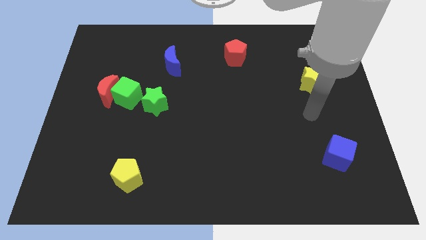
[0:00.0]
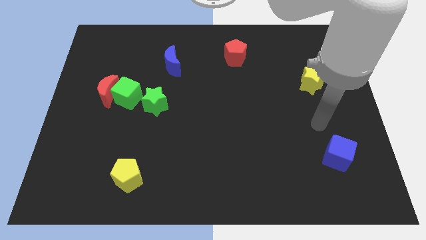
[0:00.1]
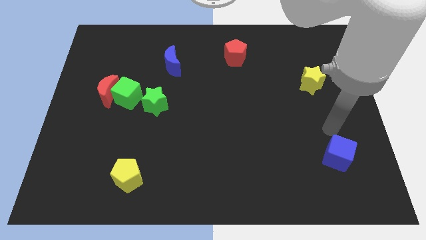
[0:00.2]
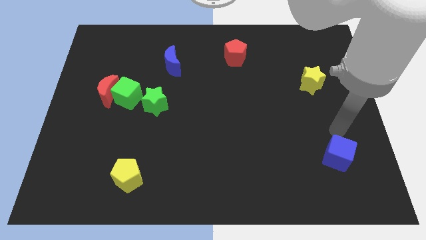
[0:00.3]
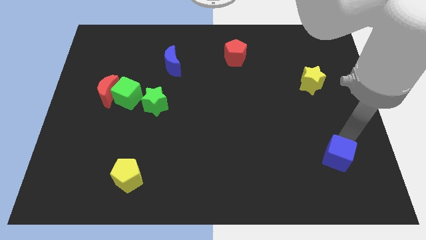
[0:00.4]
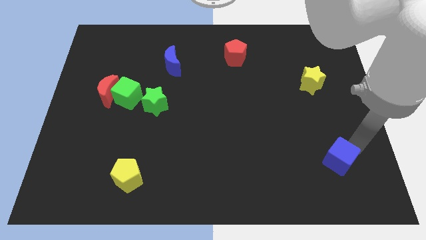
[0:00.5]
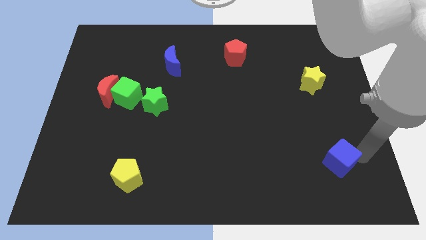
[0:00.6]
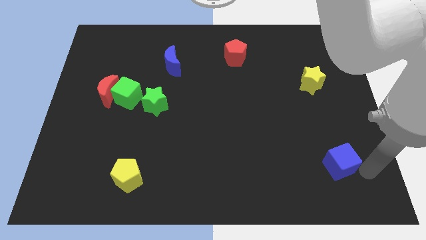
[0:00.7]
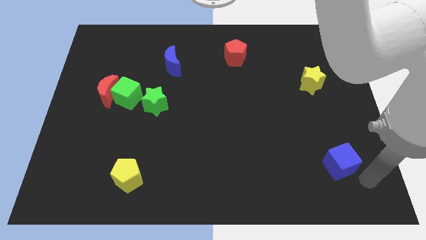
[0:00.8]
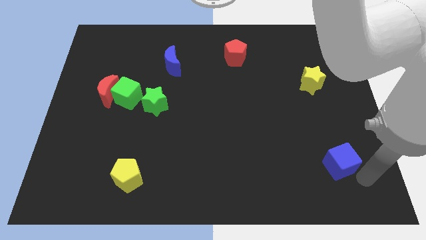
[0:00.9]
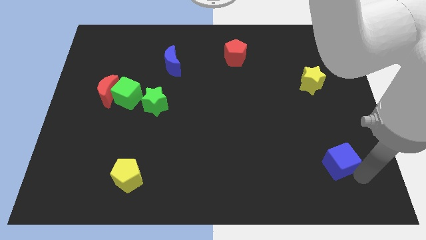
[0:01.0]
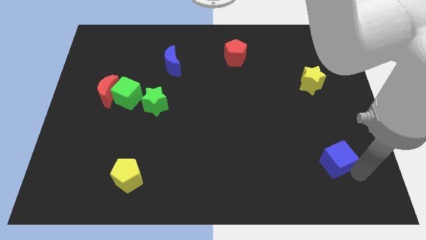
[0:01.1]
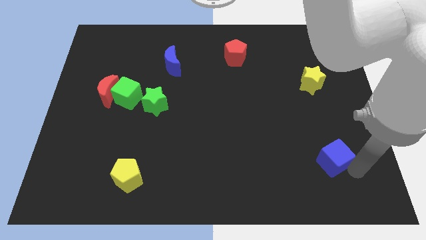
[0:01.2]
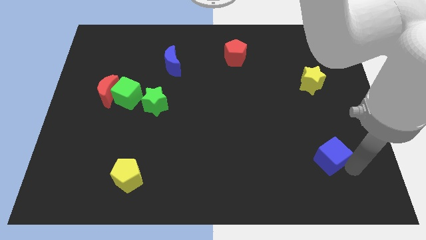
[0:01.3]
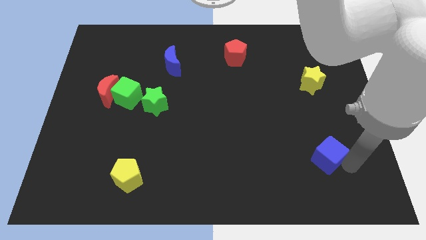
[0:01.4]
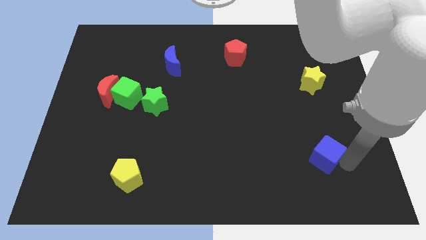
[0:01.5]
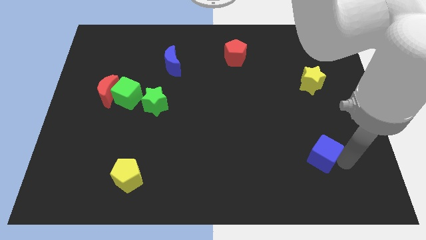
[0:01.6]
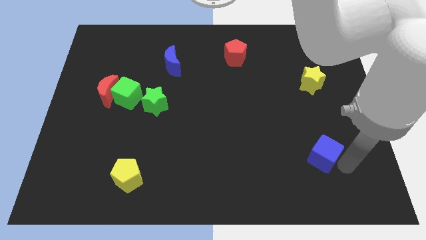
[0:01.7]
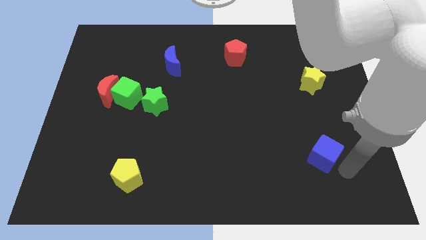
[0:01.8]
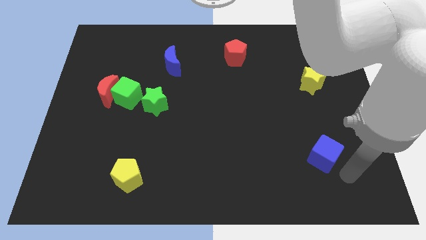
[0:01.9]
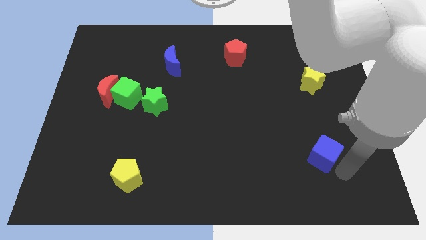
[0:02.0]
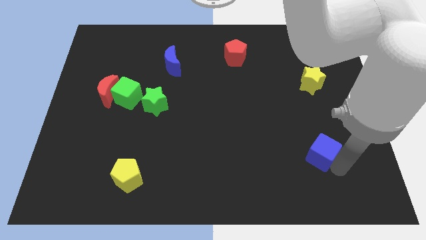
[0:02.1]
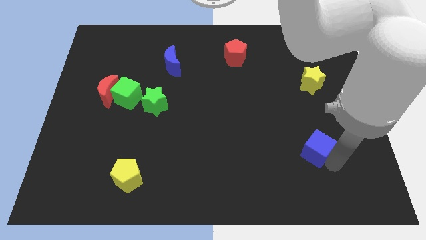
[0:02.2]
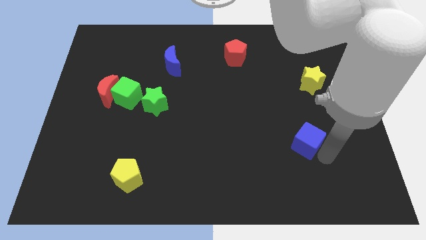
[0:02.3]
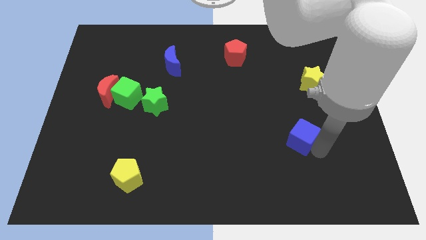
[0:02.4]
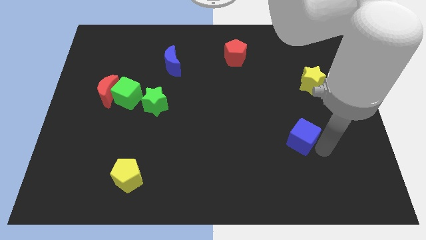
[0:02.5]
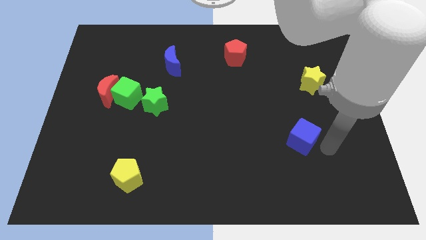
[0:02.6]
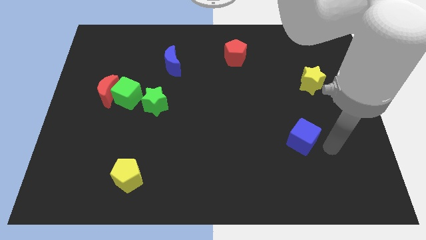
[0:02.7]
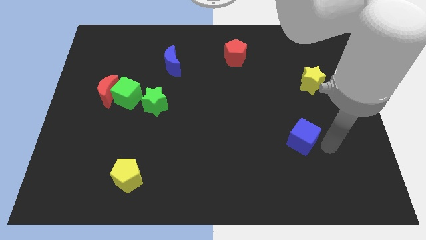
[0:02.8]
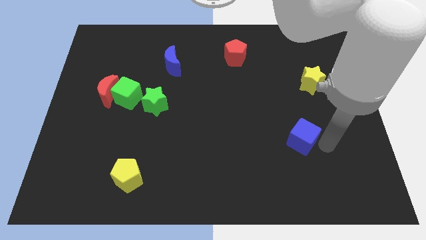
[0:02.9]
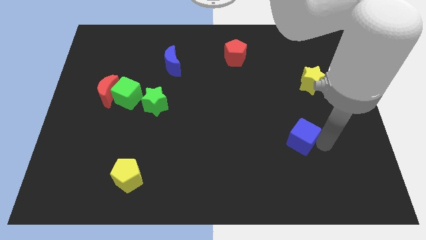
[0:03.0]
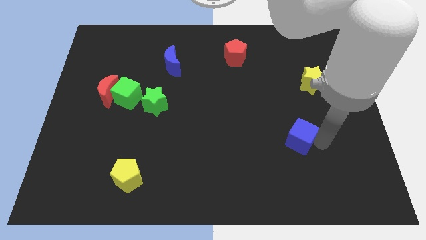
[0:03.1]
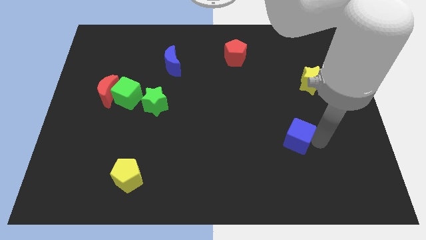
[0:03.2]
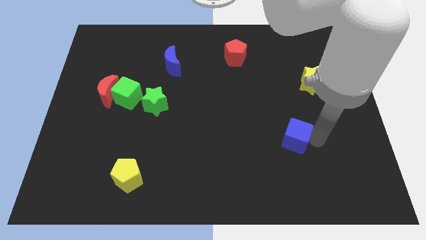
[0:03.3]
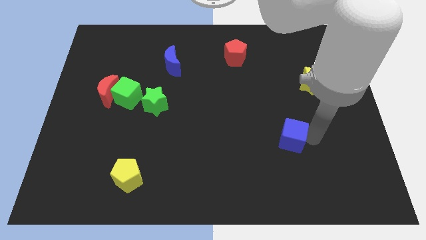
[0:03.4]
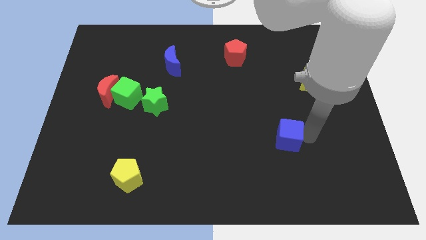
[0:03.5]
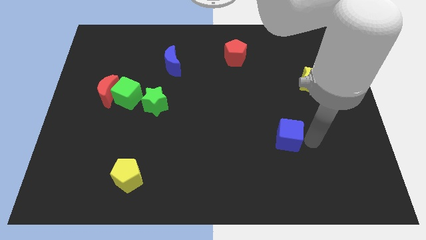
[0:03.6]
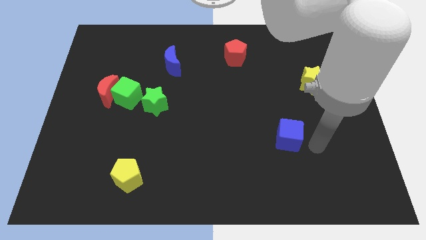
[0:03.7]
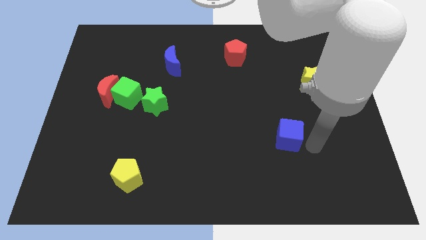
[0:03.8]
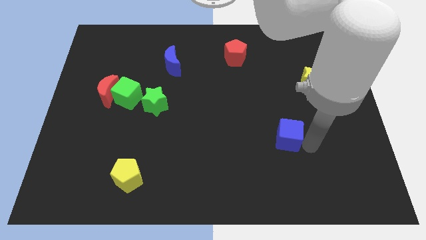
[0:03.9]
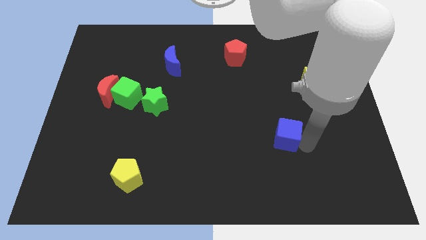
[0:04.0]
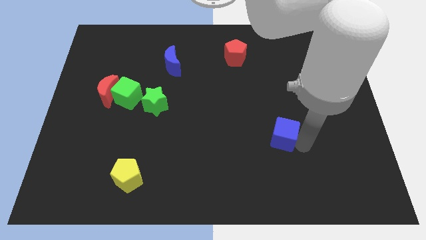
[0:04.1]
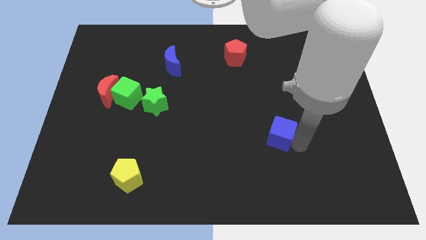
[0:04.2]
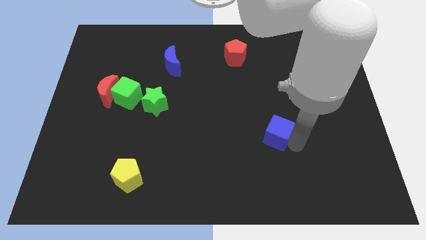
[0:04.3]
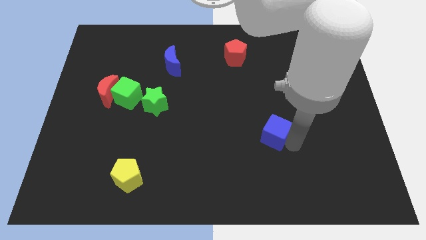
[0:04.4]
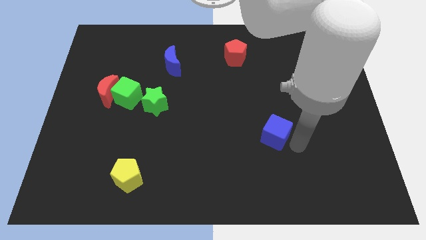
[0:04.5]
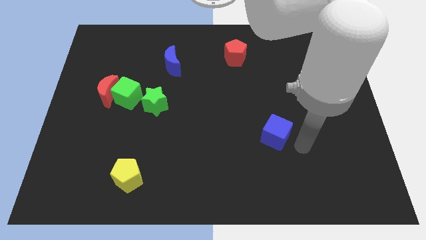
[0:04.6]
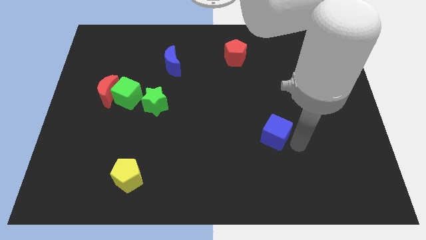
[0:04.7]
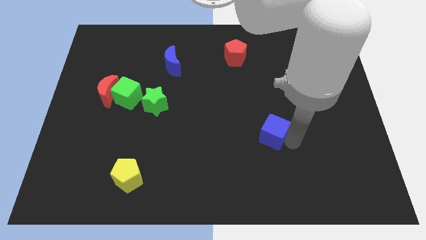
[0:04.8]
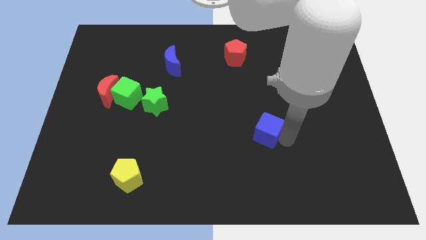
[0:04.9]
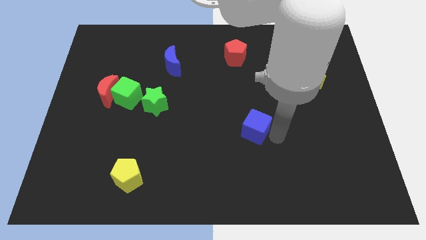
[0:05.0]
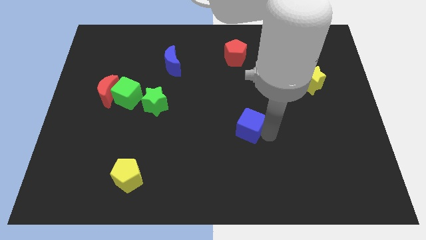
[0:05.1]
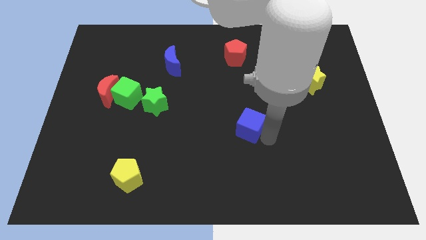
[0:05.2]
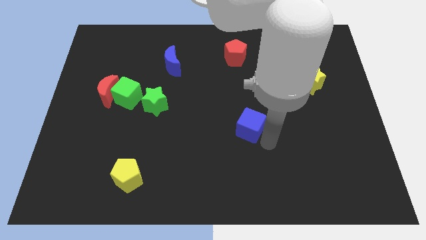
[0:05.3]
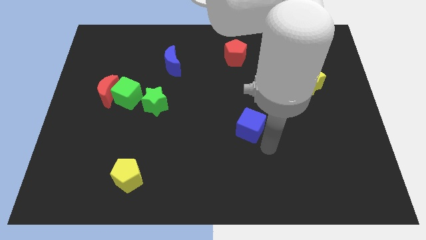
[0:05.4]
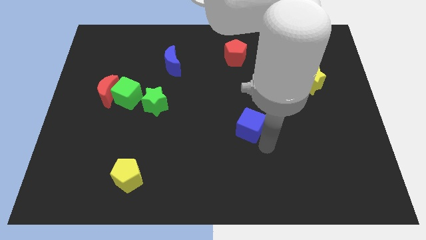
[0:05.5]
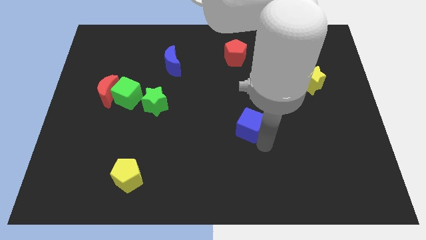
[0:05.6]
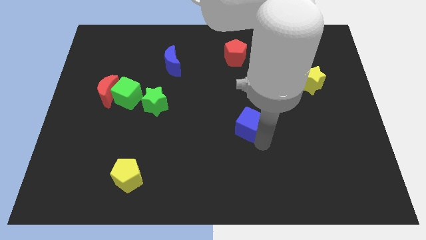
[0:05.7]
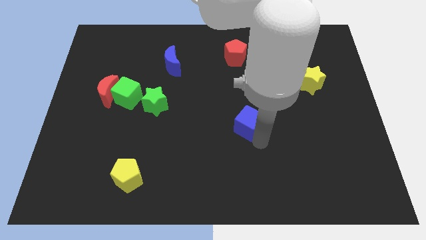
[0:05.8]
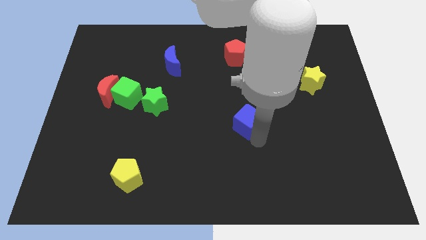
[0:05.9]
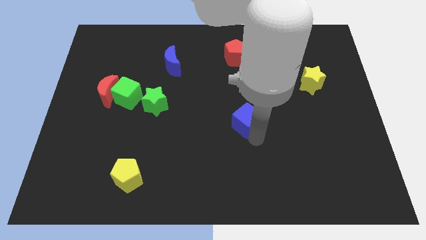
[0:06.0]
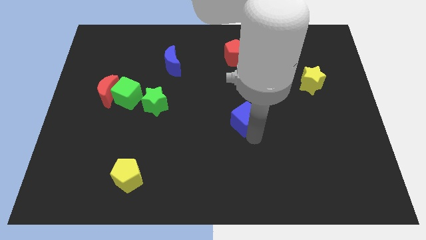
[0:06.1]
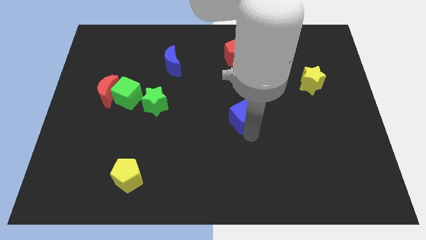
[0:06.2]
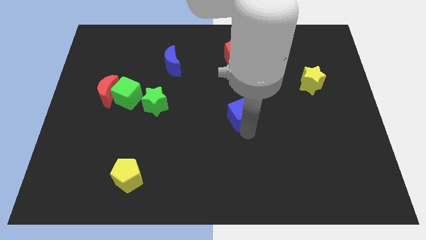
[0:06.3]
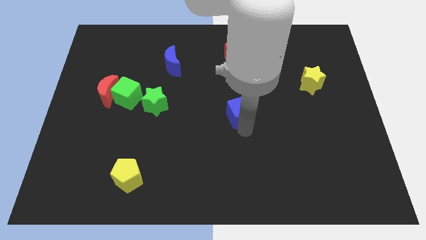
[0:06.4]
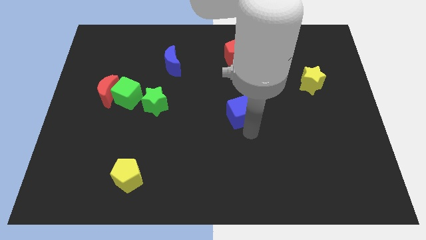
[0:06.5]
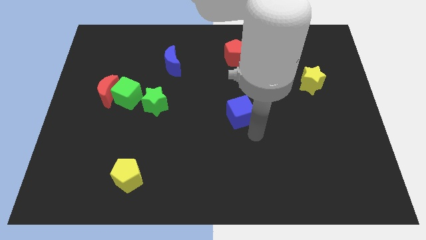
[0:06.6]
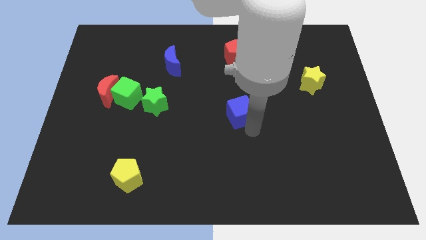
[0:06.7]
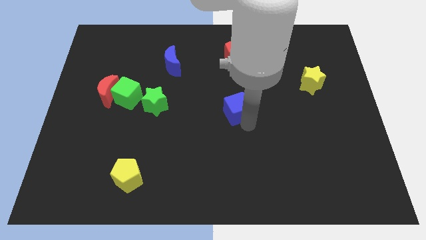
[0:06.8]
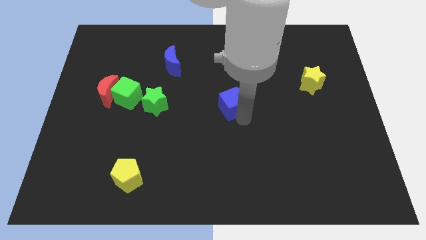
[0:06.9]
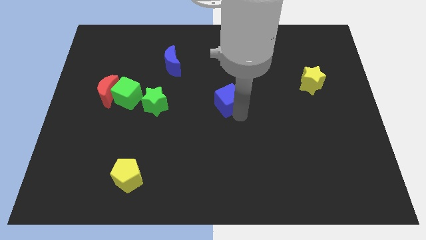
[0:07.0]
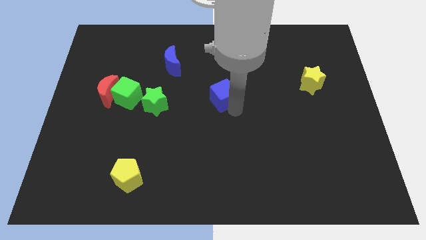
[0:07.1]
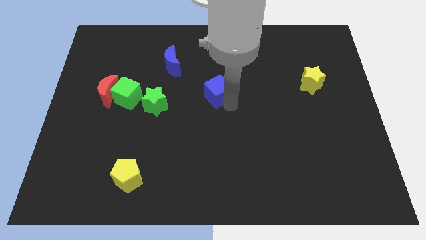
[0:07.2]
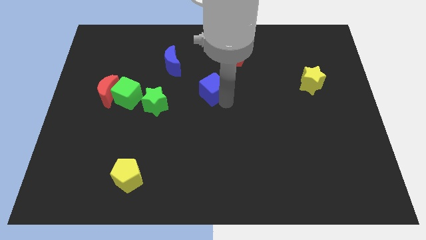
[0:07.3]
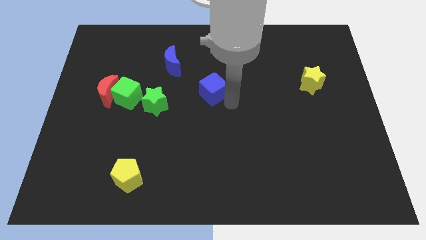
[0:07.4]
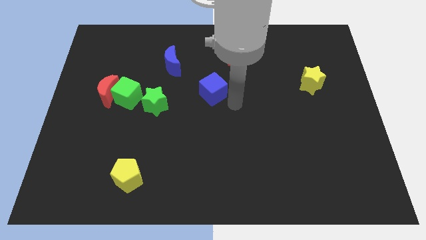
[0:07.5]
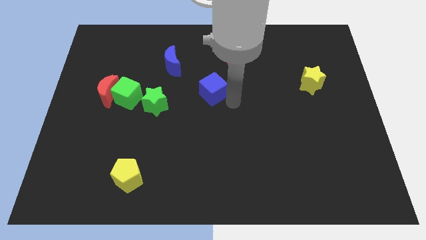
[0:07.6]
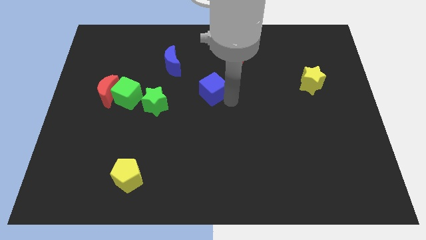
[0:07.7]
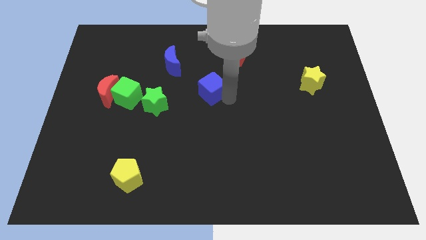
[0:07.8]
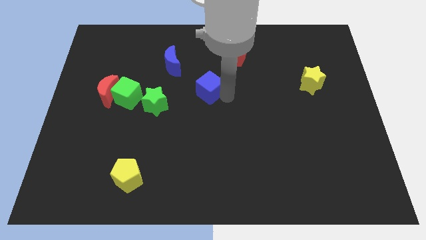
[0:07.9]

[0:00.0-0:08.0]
put the blue cube diagonally down and to the right of the blue moon
